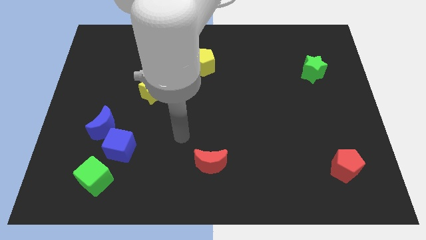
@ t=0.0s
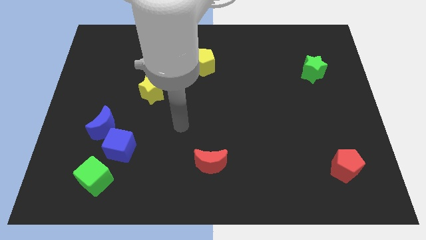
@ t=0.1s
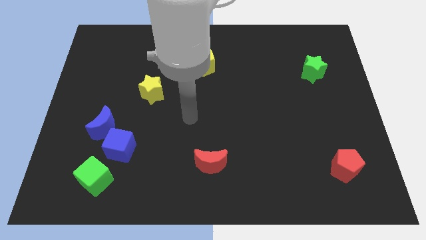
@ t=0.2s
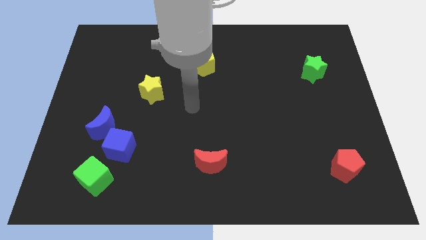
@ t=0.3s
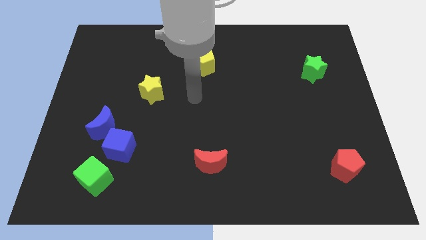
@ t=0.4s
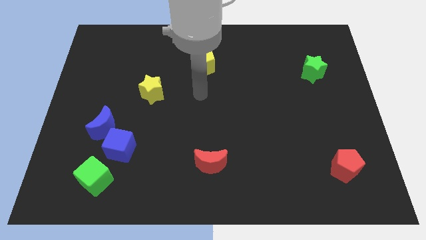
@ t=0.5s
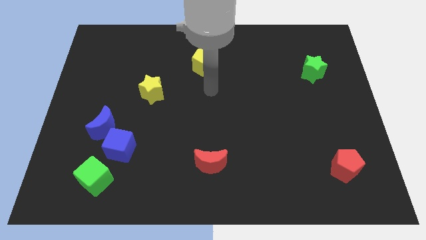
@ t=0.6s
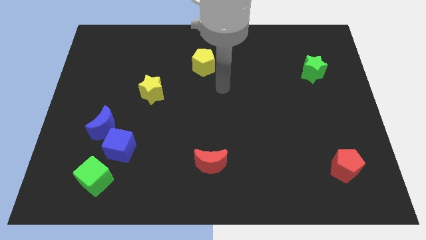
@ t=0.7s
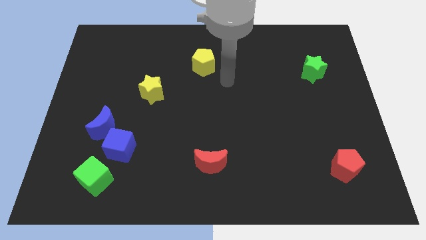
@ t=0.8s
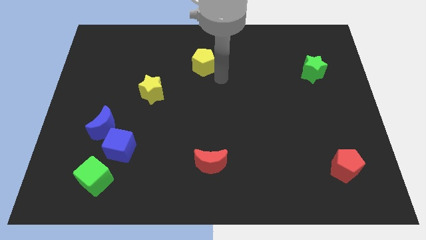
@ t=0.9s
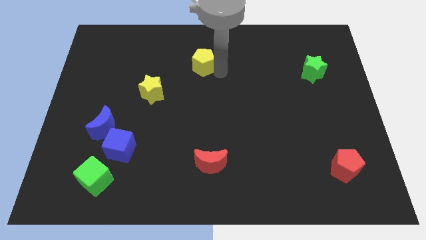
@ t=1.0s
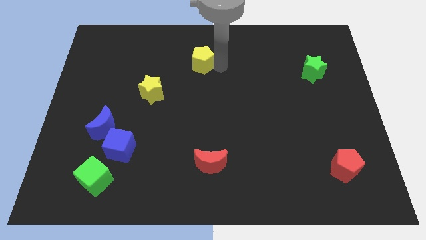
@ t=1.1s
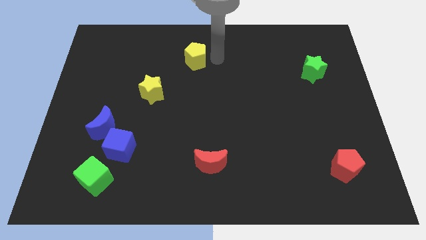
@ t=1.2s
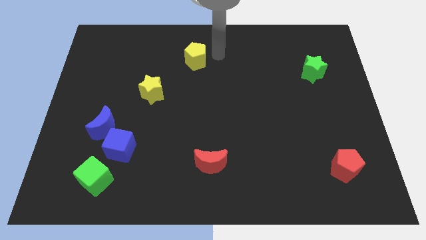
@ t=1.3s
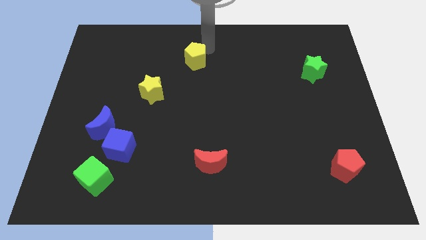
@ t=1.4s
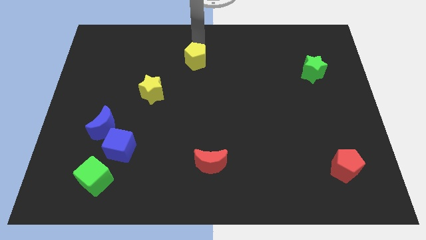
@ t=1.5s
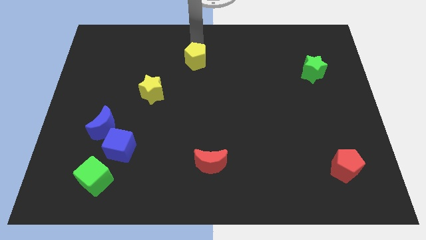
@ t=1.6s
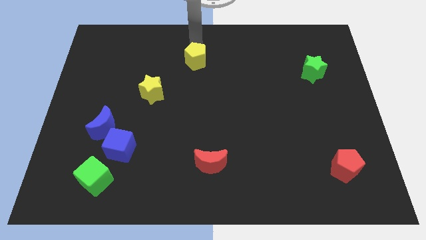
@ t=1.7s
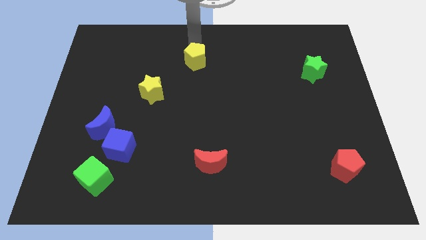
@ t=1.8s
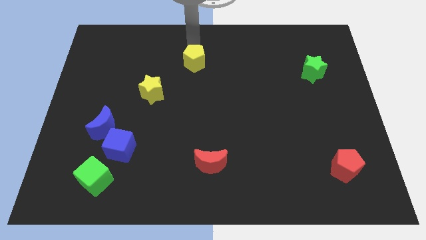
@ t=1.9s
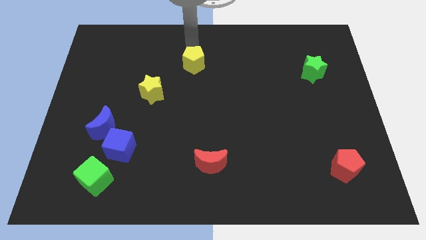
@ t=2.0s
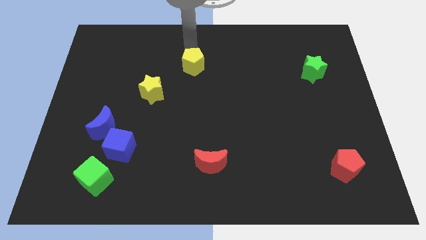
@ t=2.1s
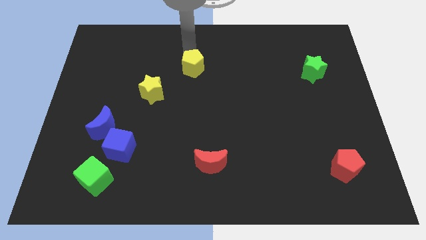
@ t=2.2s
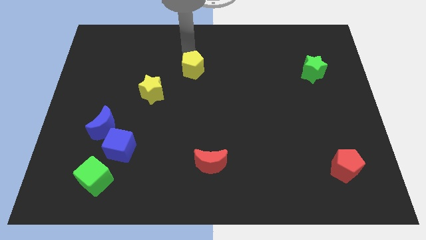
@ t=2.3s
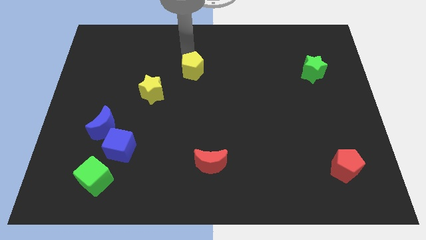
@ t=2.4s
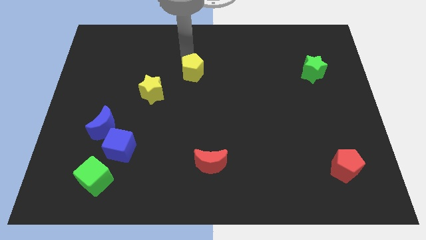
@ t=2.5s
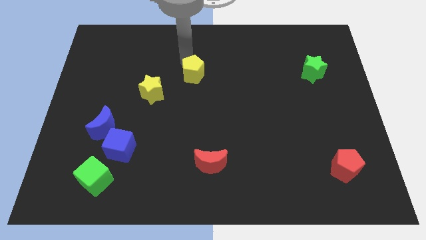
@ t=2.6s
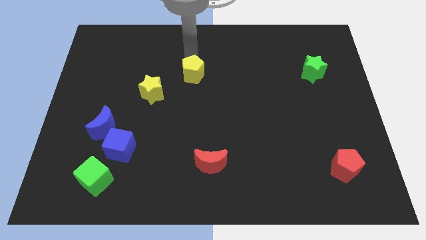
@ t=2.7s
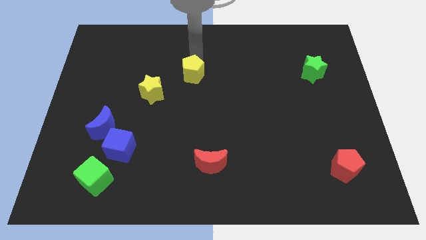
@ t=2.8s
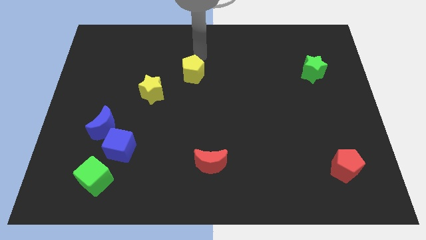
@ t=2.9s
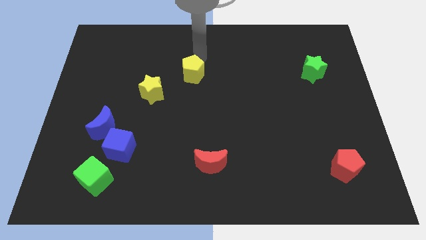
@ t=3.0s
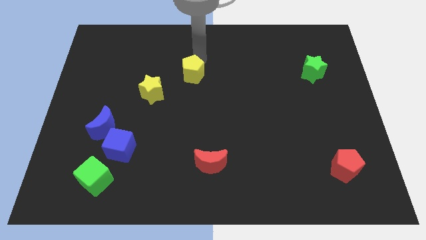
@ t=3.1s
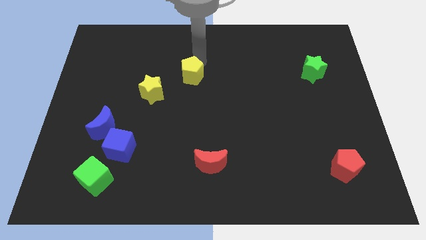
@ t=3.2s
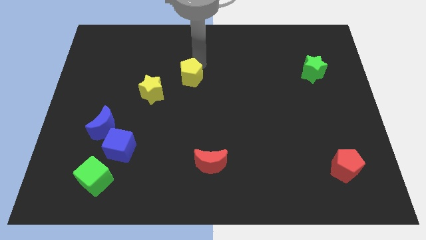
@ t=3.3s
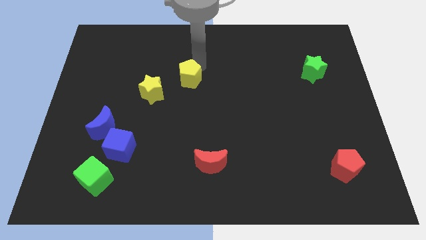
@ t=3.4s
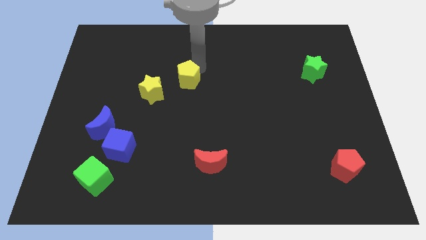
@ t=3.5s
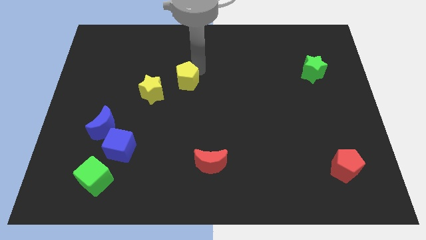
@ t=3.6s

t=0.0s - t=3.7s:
move the yellow pentagon a little bit downwards and left

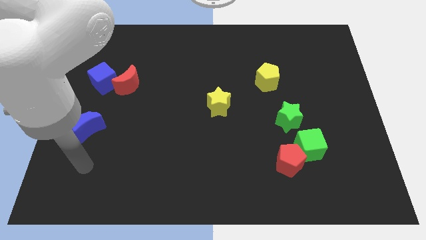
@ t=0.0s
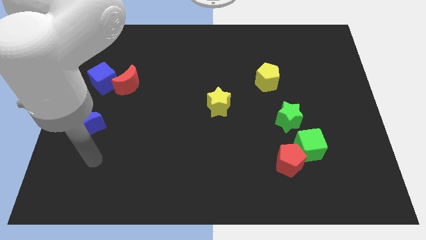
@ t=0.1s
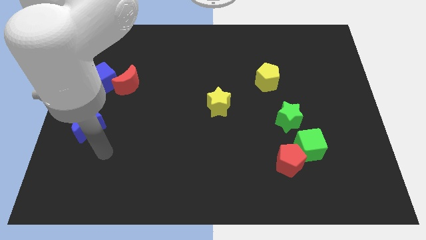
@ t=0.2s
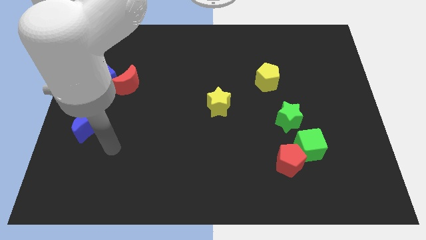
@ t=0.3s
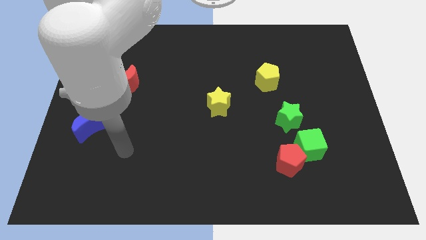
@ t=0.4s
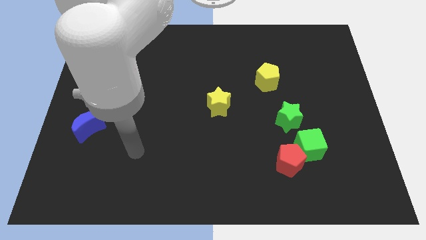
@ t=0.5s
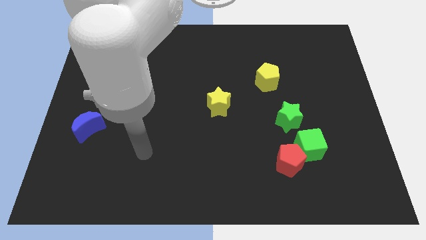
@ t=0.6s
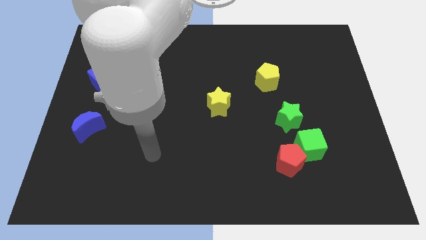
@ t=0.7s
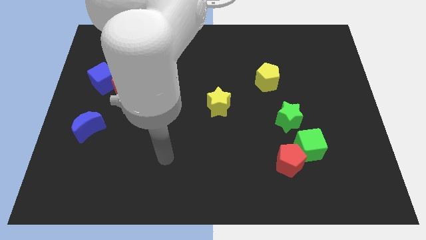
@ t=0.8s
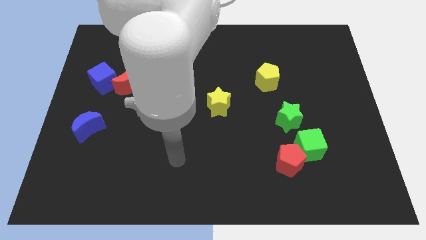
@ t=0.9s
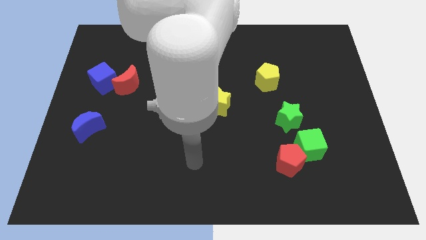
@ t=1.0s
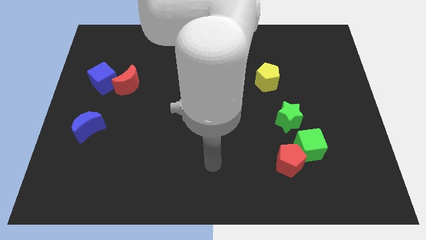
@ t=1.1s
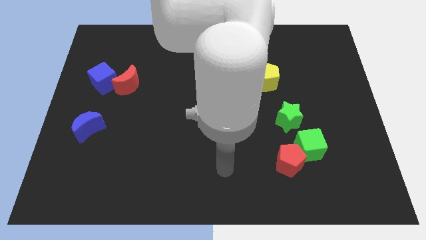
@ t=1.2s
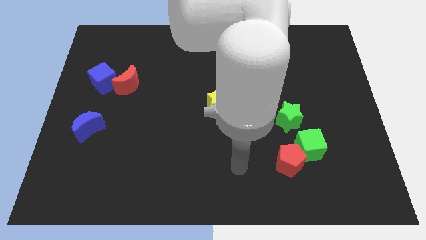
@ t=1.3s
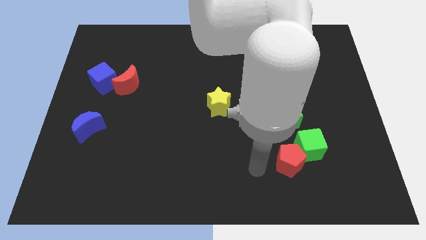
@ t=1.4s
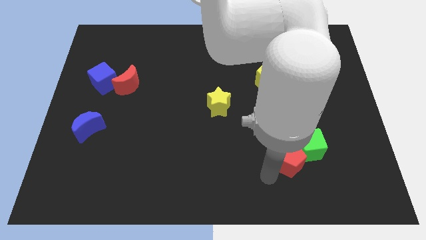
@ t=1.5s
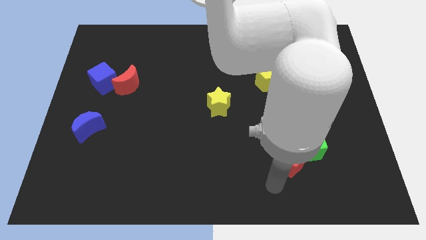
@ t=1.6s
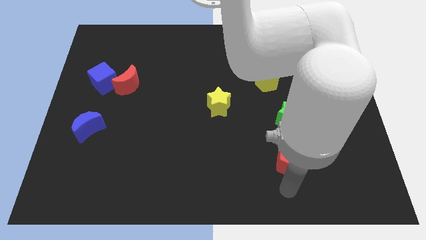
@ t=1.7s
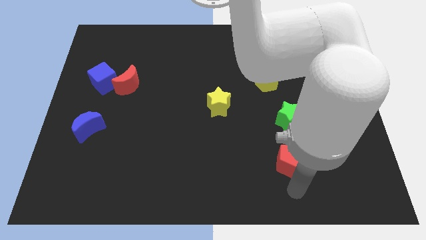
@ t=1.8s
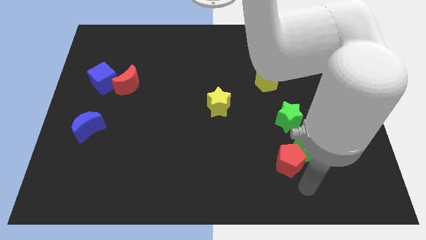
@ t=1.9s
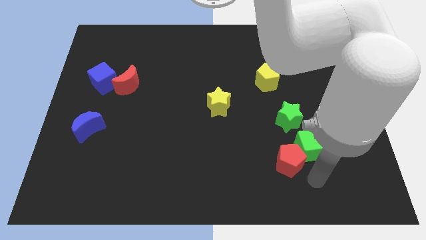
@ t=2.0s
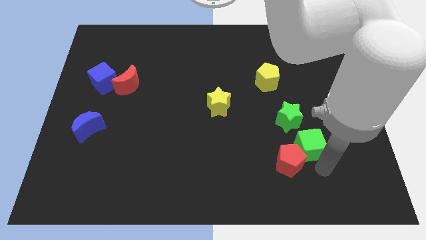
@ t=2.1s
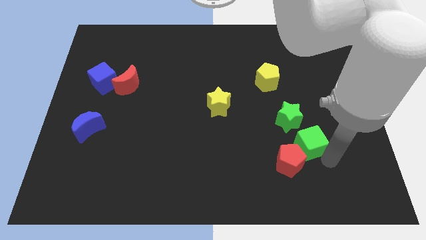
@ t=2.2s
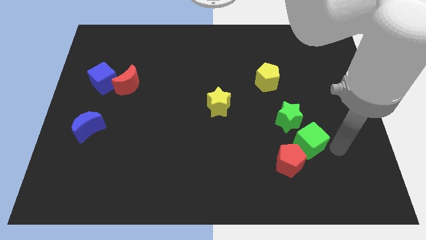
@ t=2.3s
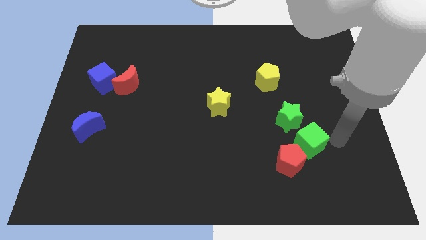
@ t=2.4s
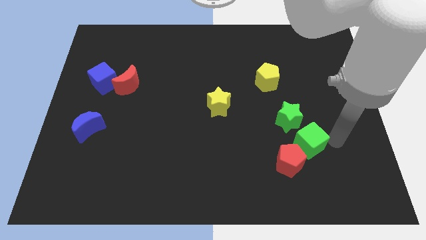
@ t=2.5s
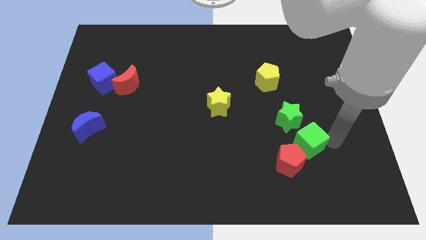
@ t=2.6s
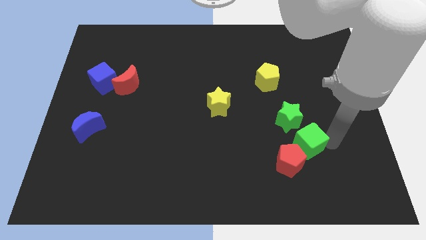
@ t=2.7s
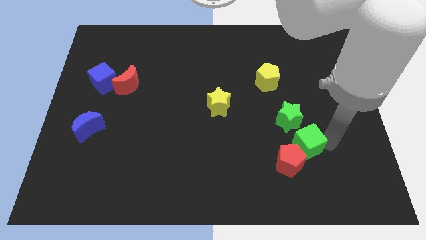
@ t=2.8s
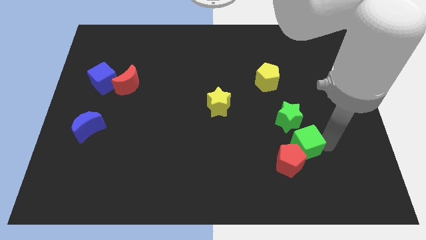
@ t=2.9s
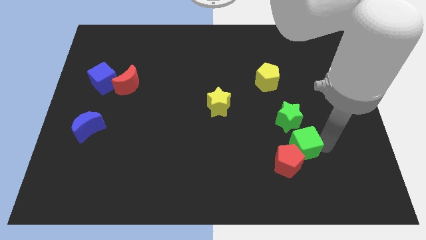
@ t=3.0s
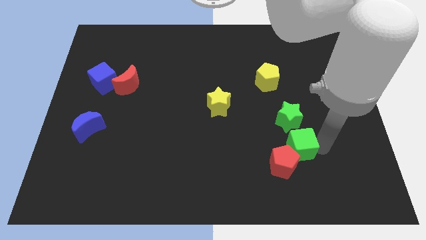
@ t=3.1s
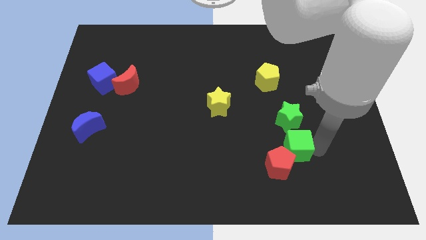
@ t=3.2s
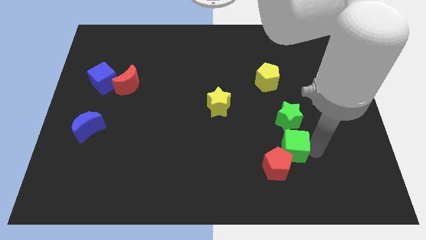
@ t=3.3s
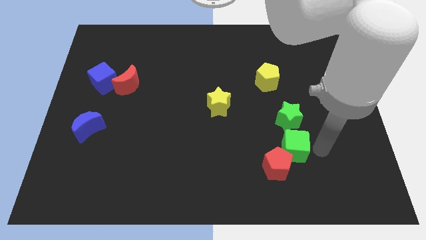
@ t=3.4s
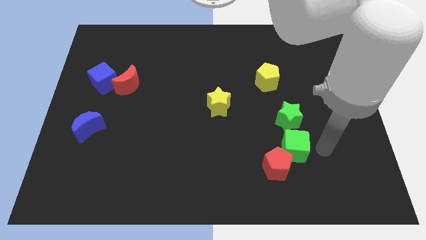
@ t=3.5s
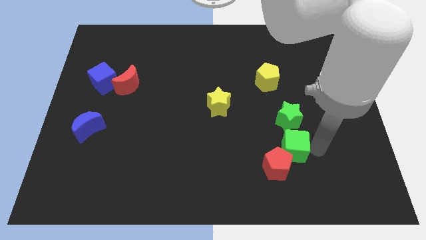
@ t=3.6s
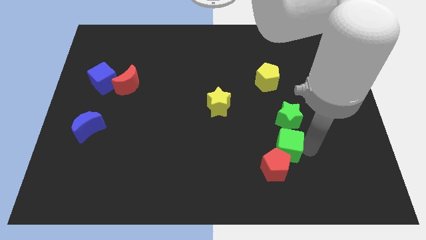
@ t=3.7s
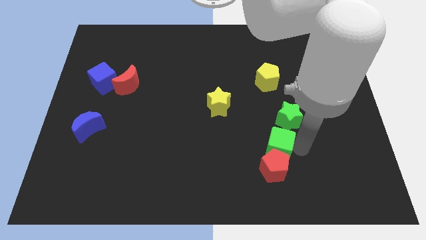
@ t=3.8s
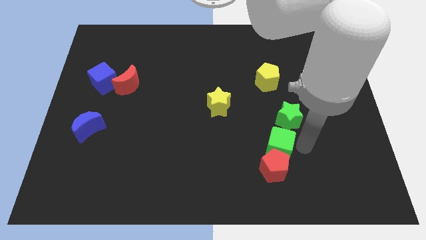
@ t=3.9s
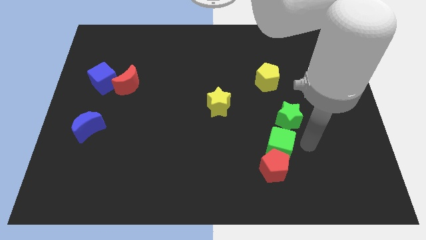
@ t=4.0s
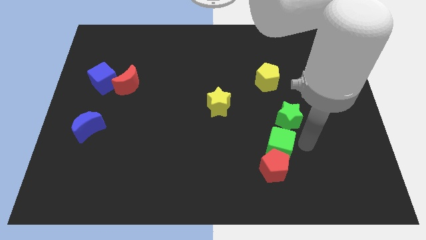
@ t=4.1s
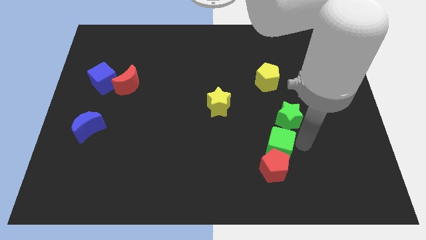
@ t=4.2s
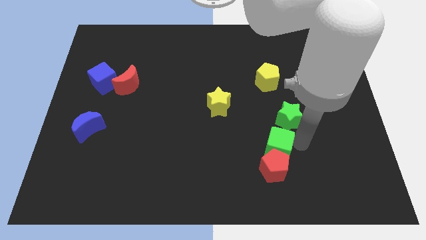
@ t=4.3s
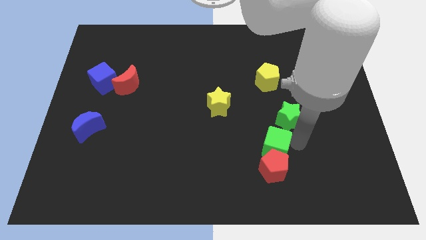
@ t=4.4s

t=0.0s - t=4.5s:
slightly slide the green cube left
